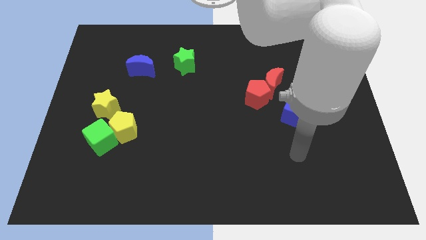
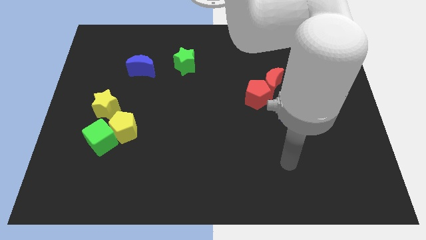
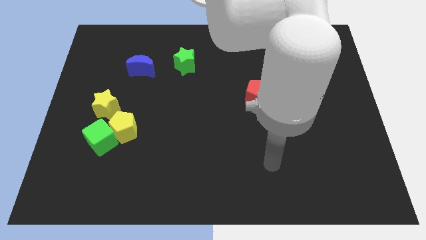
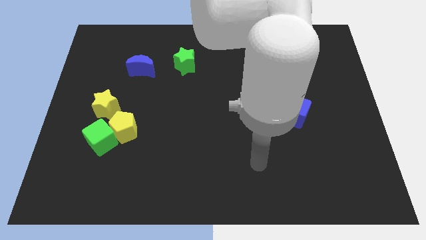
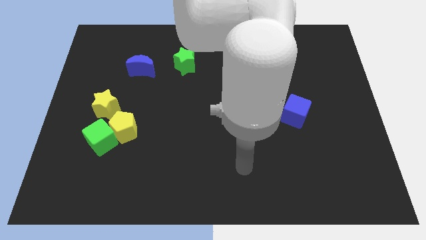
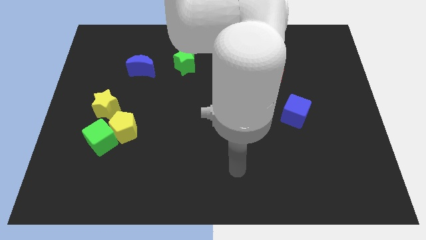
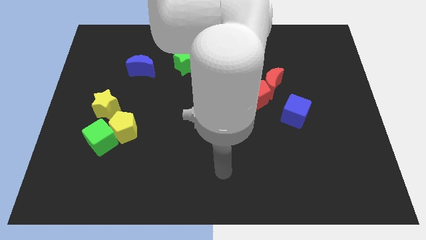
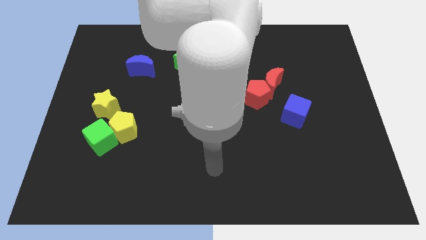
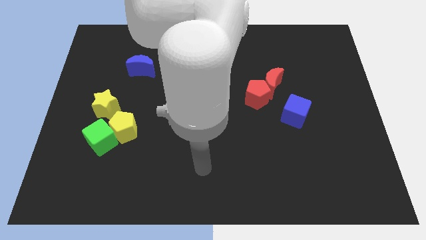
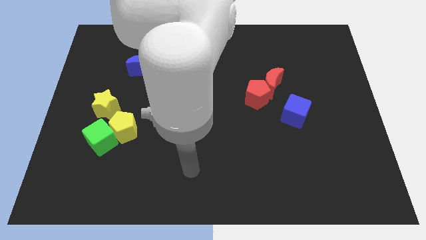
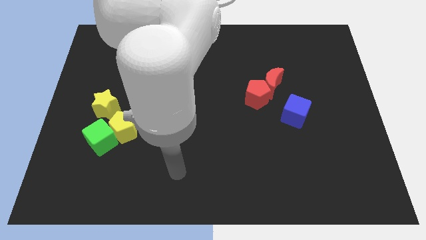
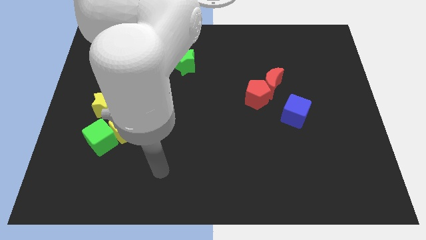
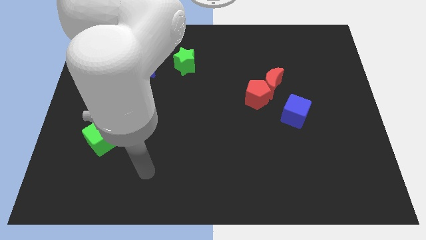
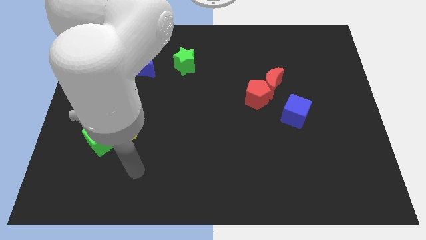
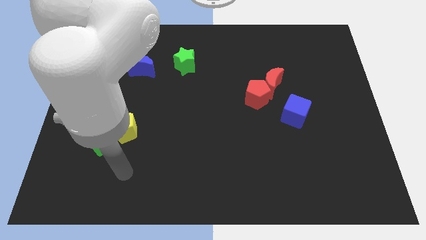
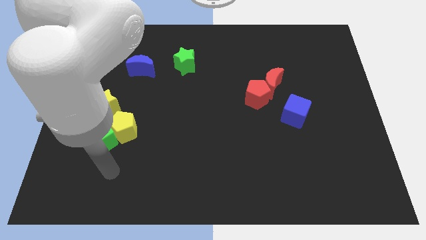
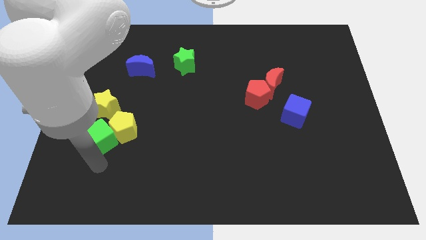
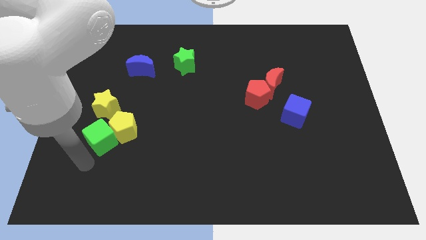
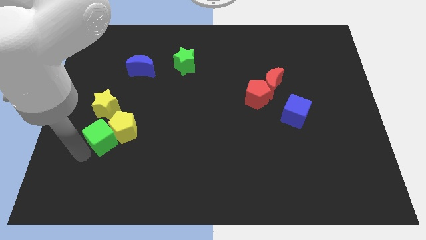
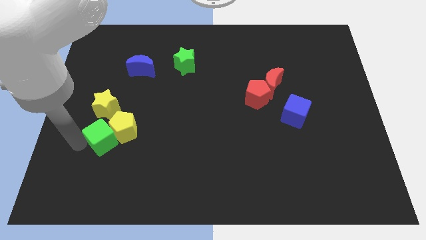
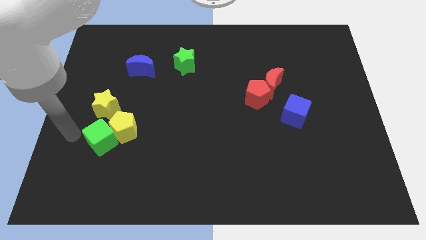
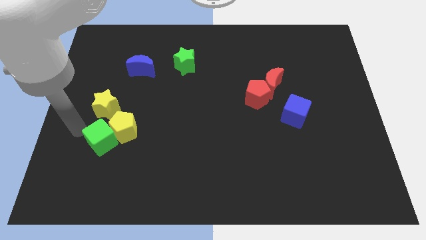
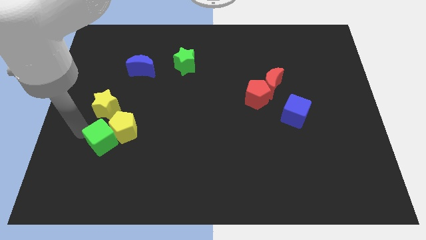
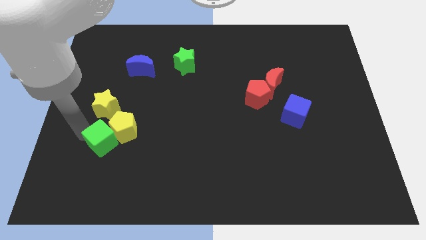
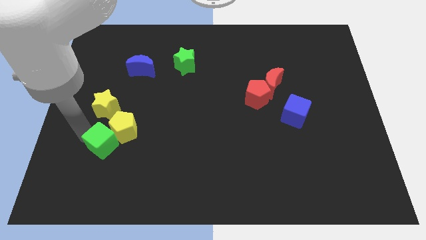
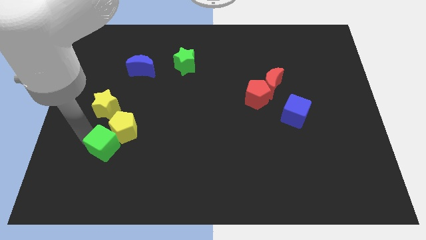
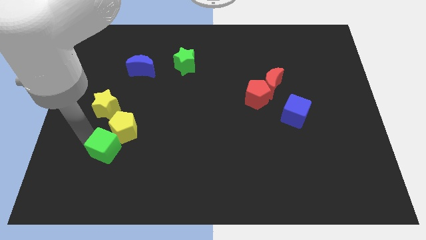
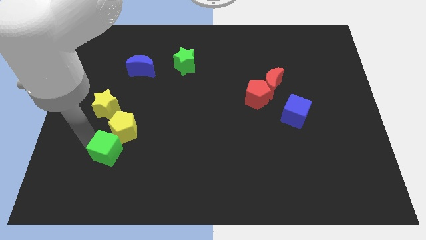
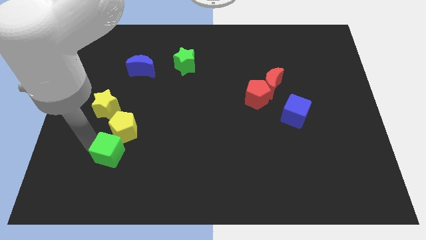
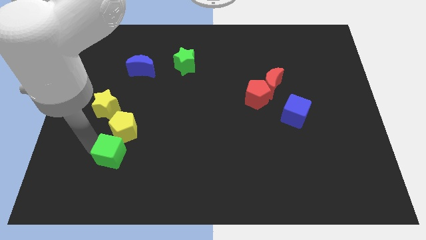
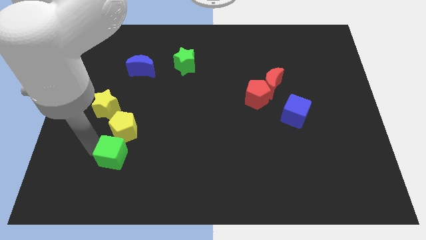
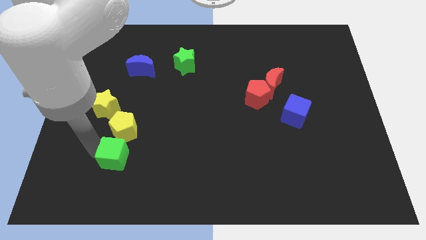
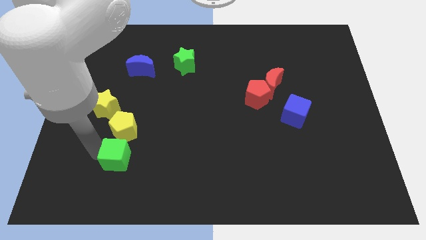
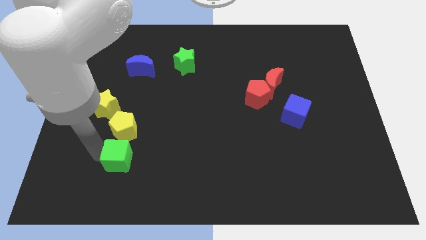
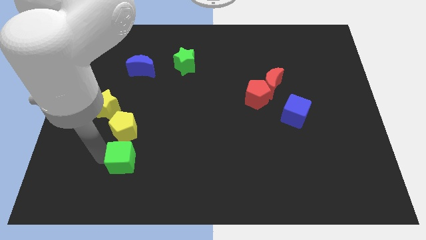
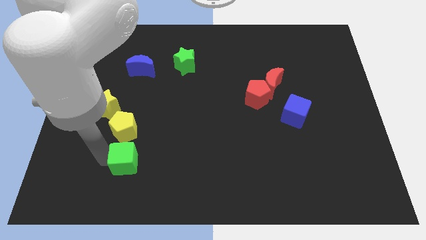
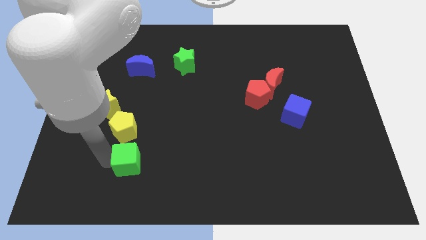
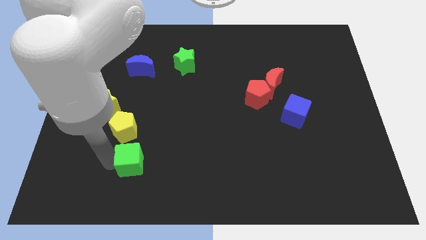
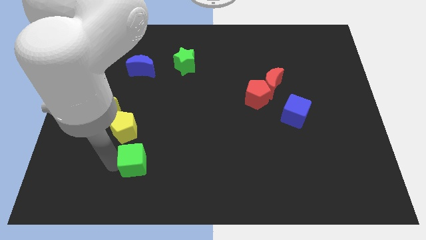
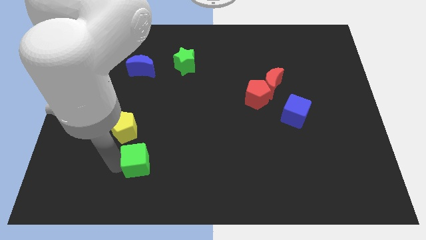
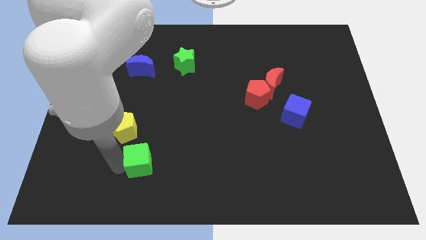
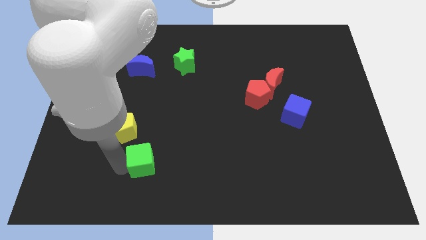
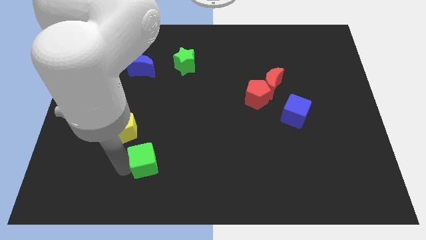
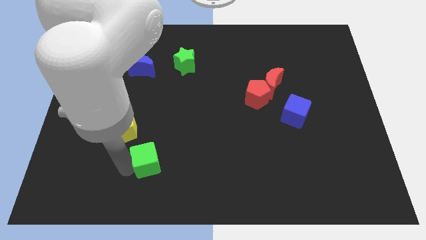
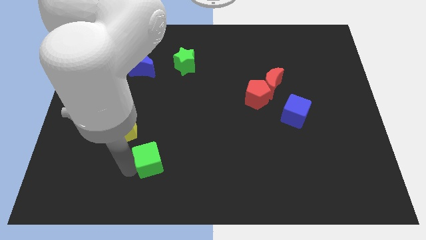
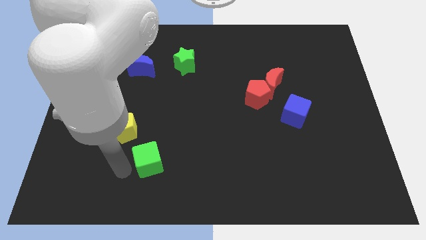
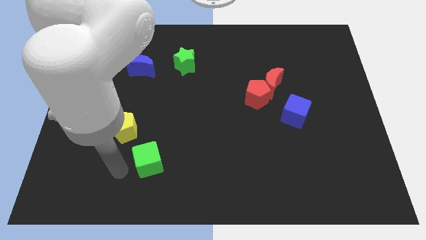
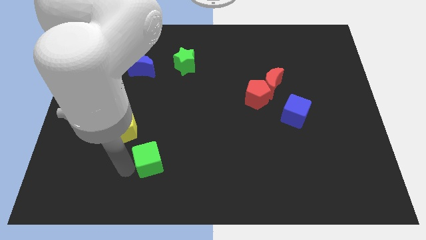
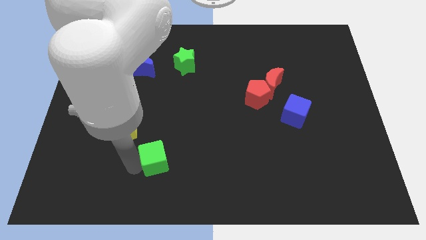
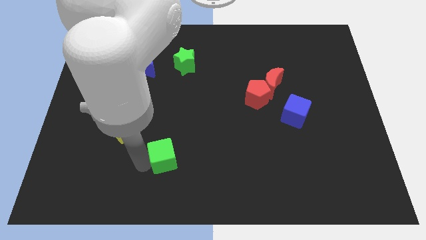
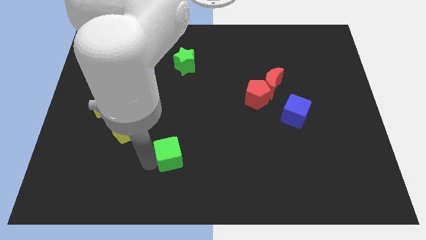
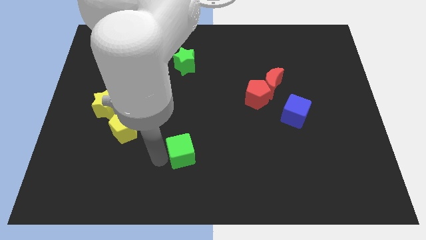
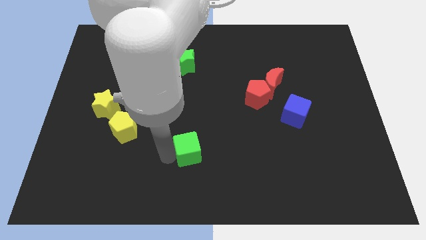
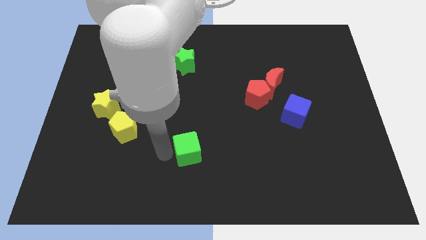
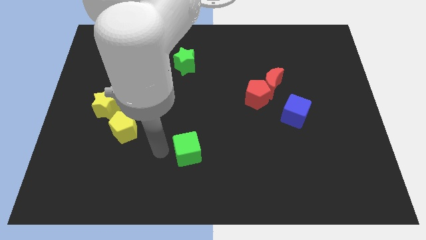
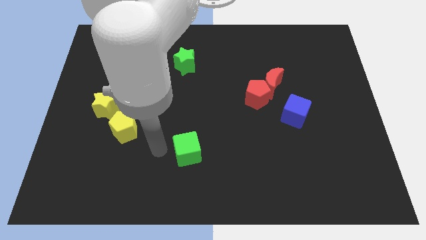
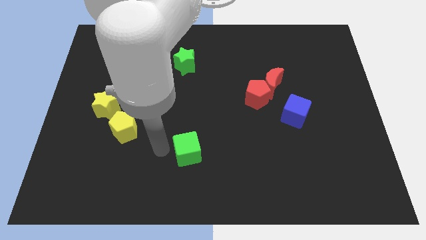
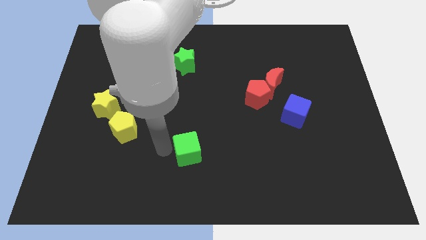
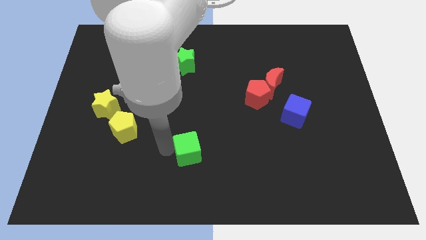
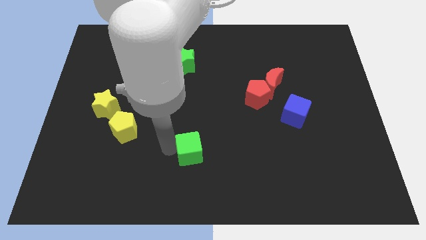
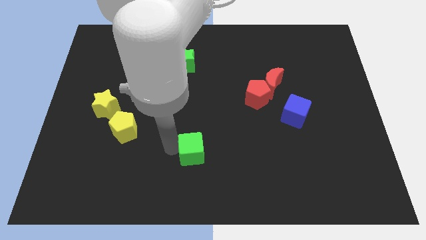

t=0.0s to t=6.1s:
move the green cube to the right

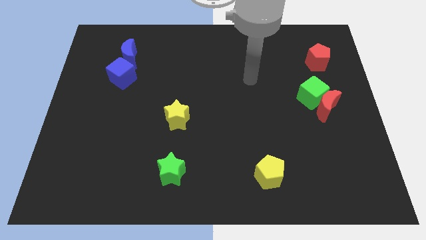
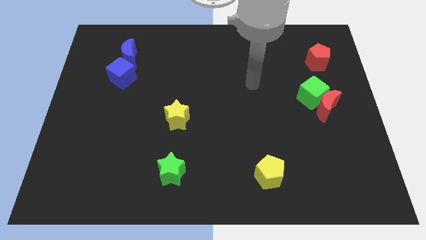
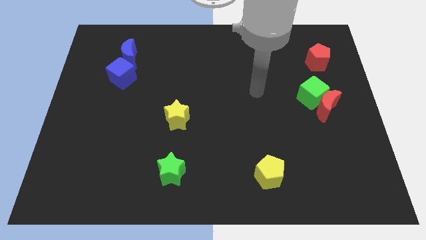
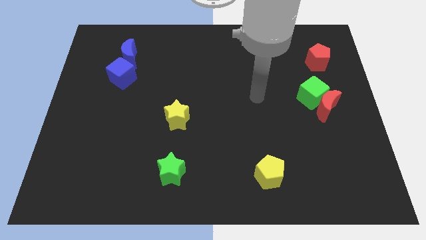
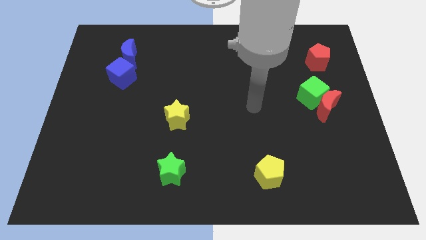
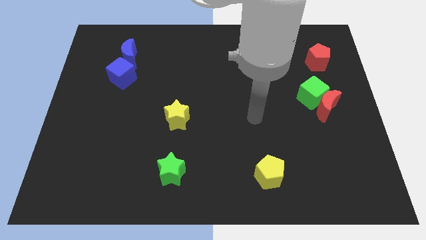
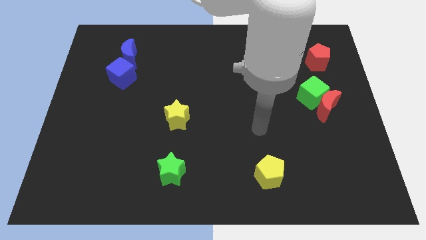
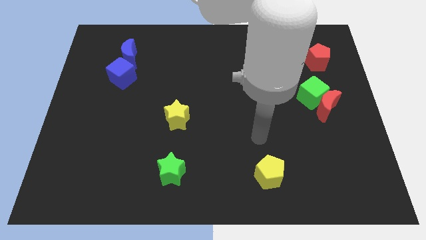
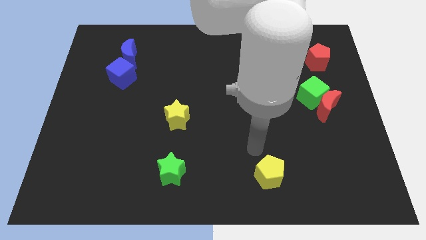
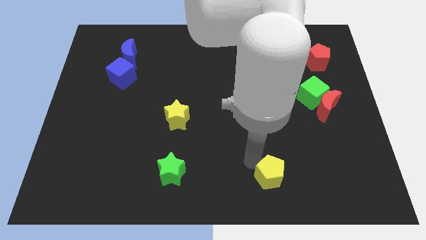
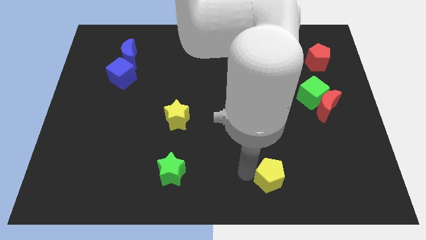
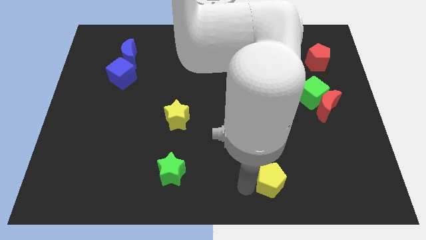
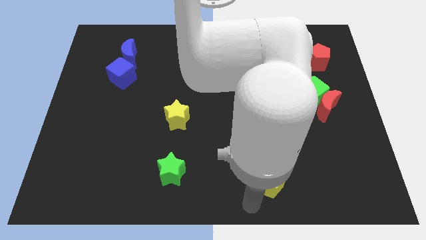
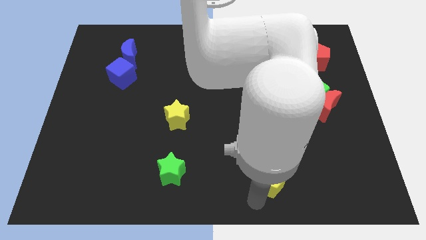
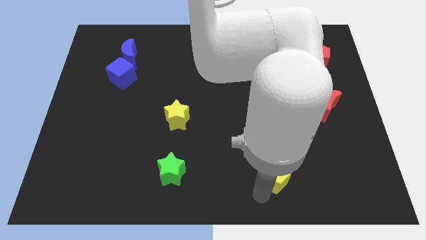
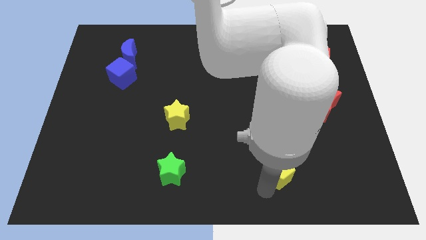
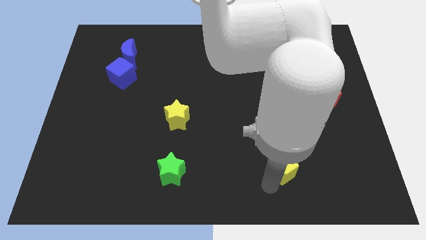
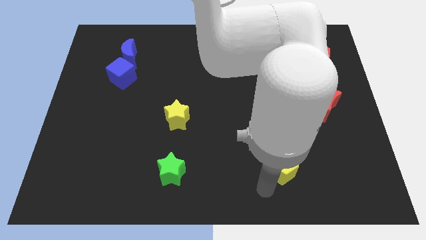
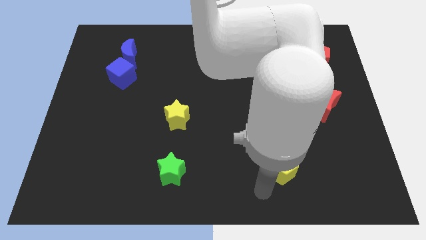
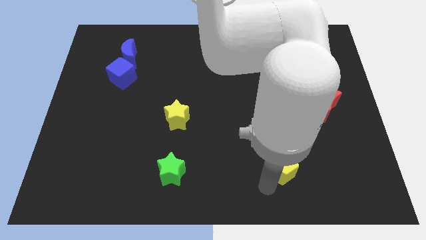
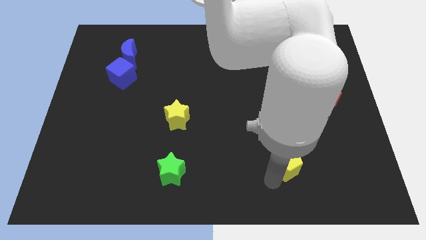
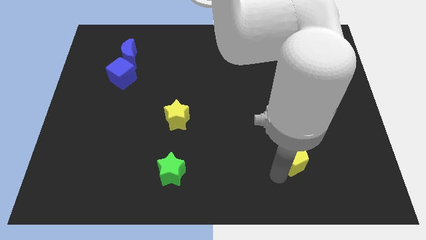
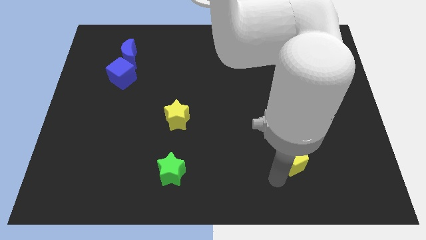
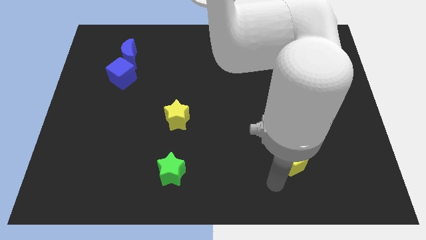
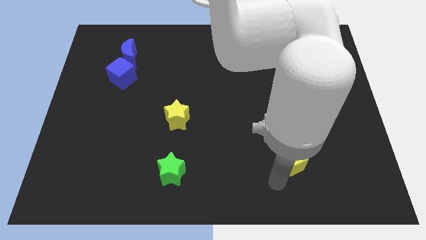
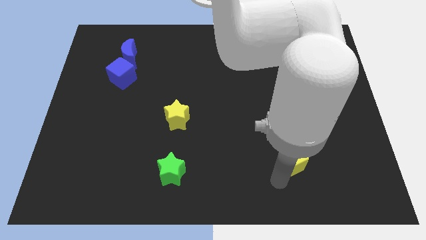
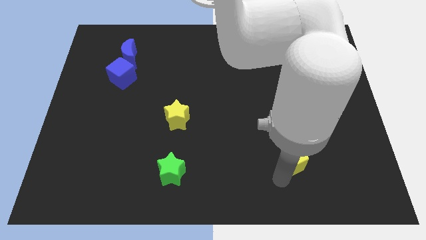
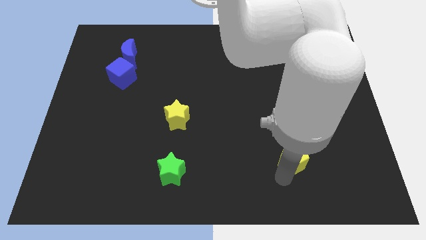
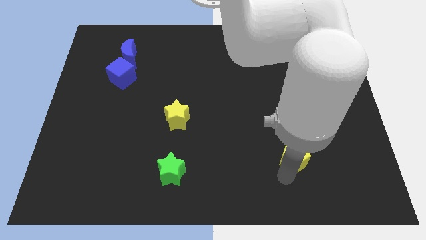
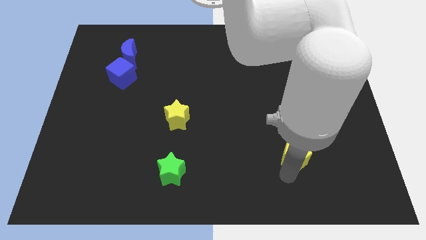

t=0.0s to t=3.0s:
slightly push the yellow pentagon up and to the right diagonally
